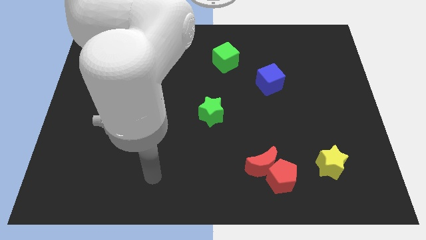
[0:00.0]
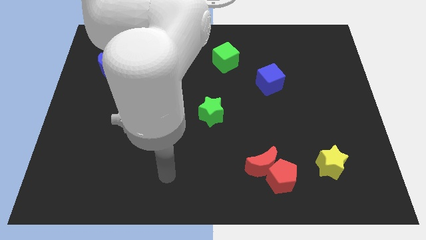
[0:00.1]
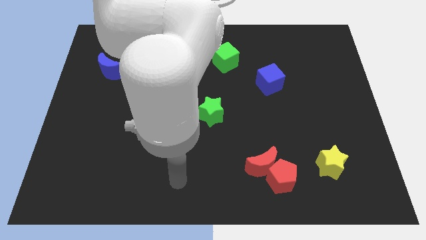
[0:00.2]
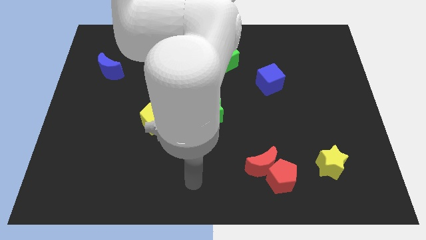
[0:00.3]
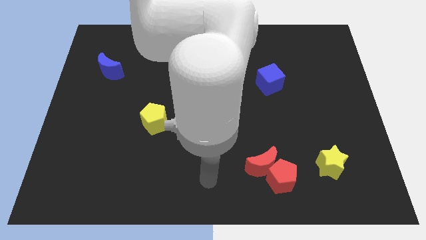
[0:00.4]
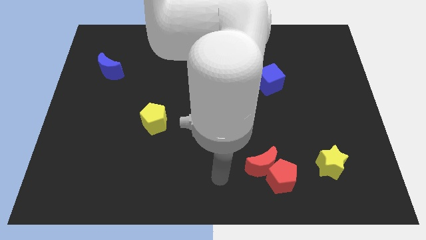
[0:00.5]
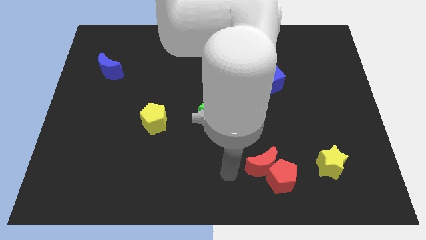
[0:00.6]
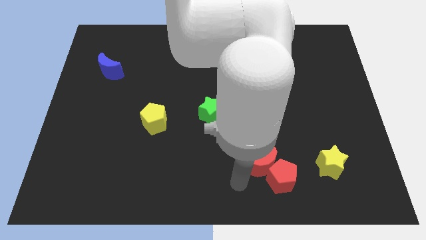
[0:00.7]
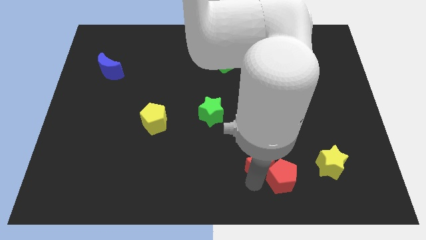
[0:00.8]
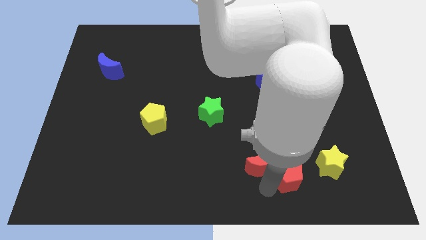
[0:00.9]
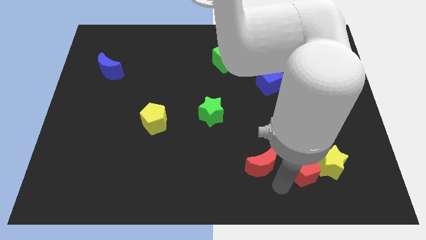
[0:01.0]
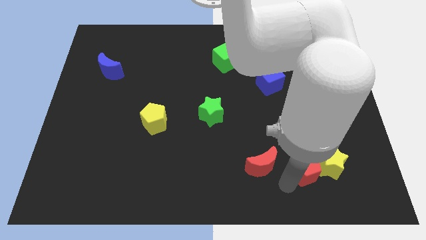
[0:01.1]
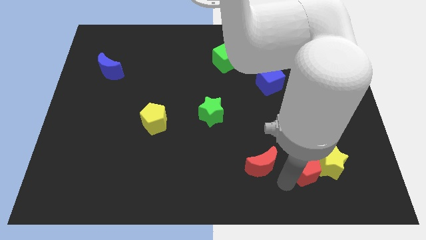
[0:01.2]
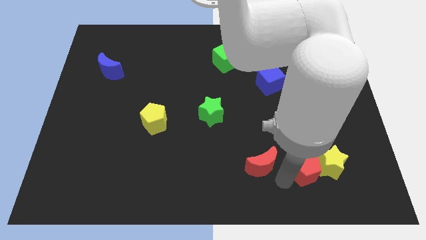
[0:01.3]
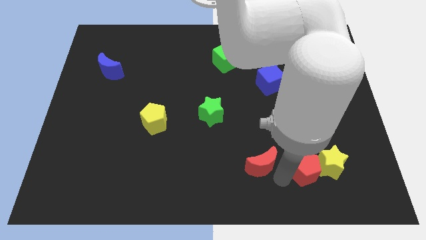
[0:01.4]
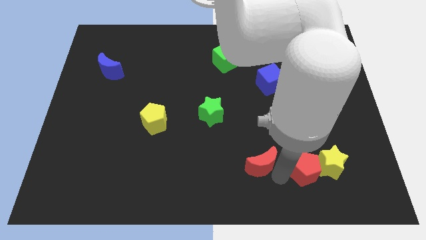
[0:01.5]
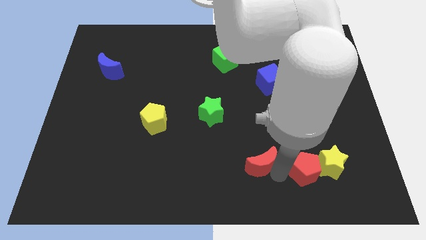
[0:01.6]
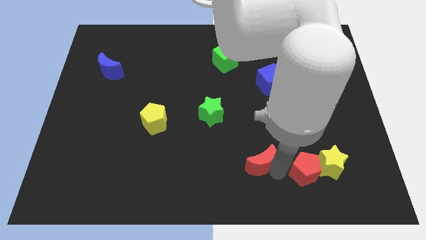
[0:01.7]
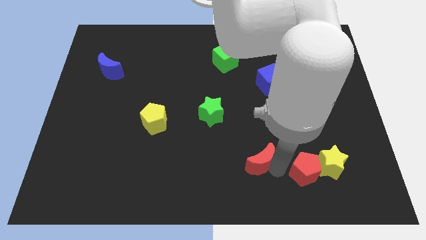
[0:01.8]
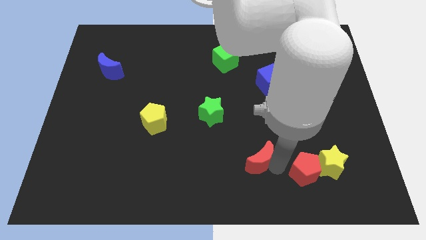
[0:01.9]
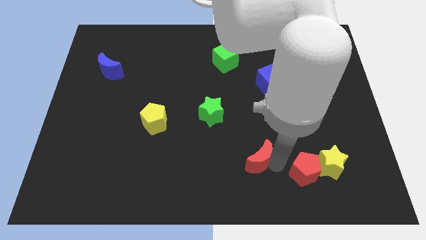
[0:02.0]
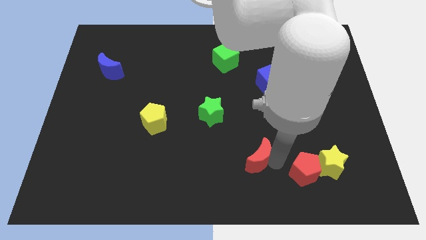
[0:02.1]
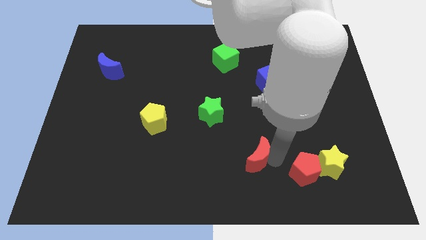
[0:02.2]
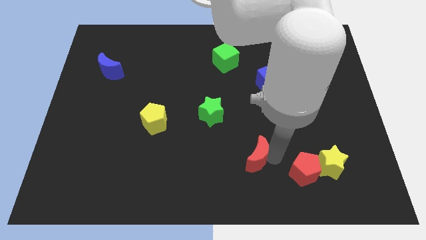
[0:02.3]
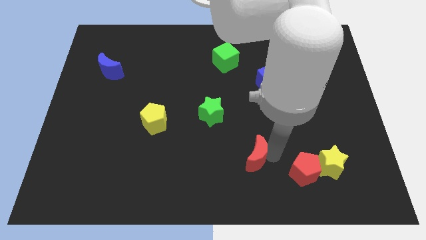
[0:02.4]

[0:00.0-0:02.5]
move the red moon away from the red pentagon

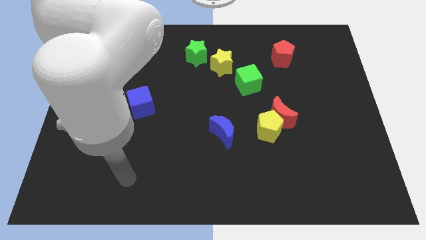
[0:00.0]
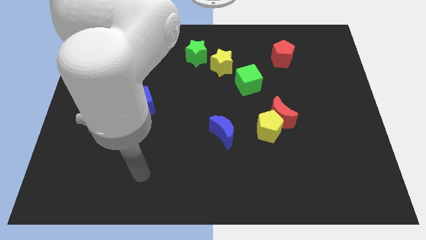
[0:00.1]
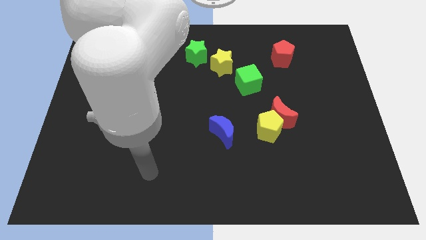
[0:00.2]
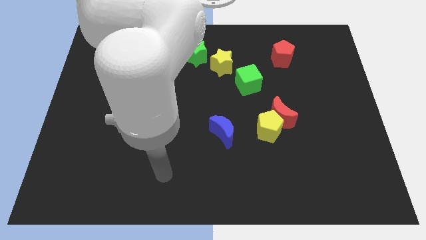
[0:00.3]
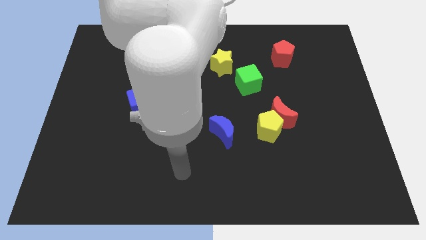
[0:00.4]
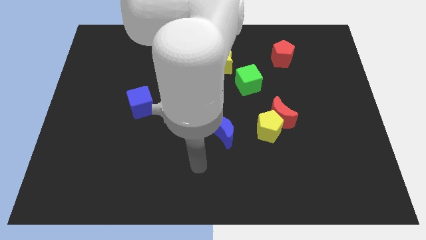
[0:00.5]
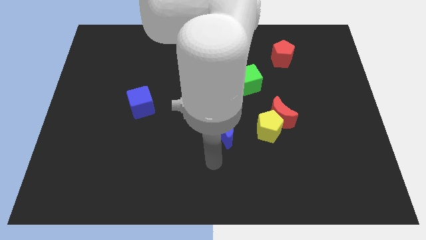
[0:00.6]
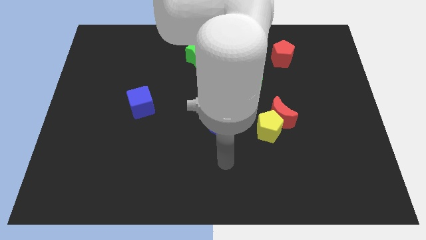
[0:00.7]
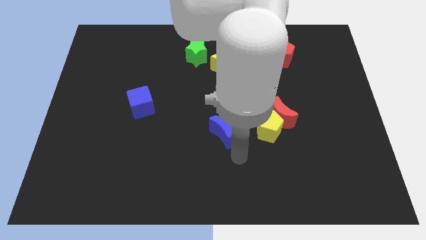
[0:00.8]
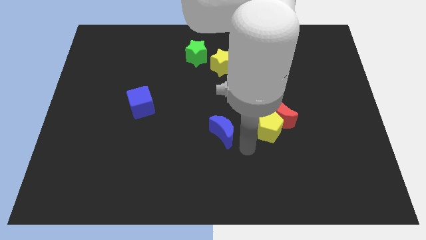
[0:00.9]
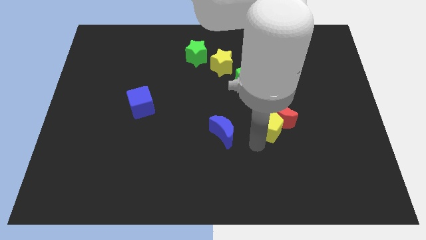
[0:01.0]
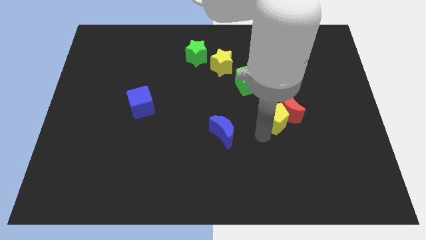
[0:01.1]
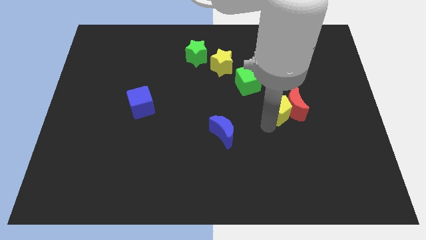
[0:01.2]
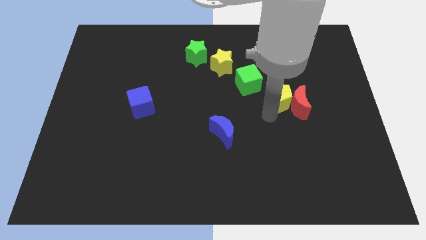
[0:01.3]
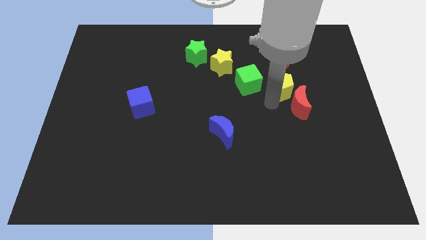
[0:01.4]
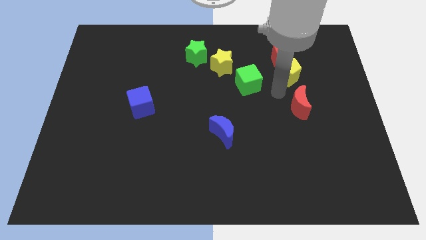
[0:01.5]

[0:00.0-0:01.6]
move the red moon away from the yellow pentagon

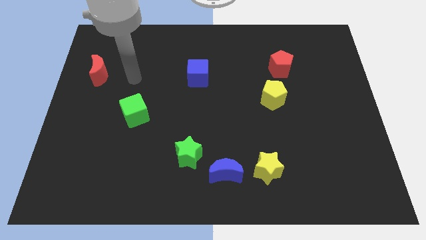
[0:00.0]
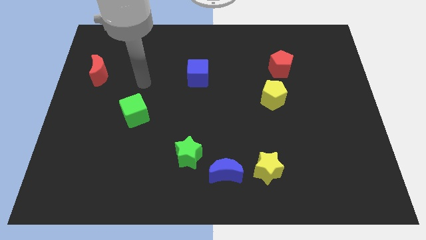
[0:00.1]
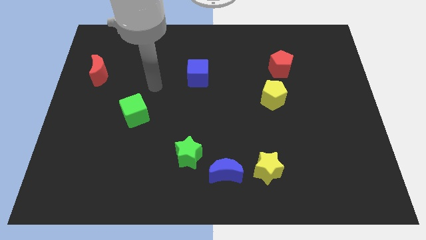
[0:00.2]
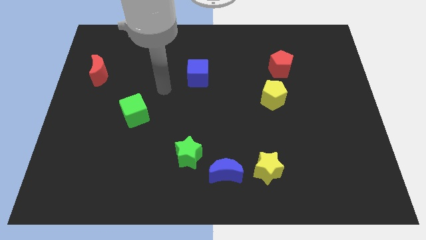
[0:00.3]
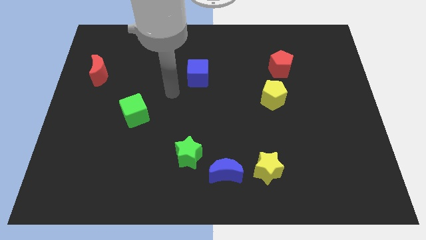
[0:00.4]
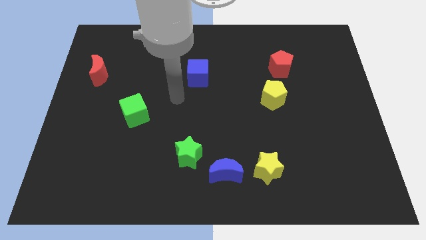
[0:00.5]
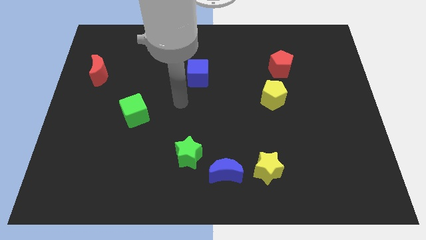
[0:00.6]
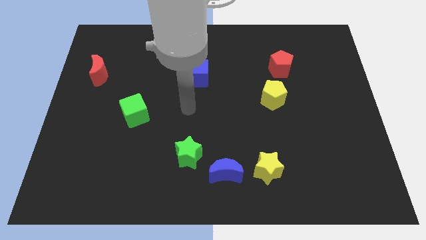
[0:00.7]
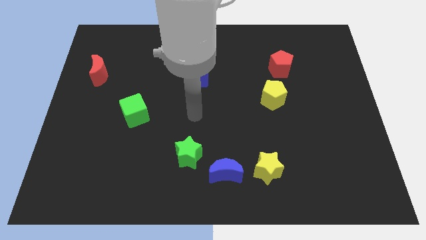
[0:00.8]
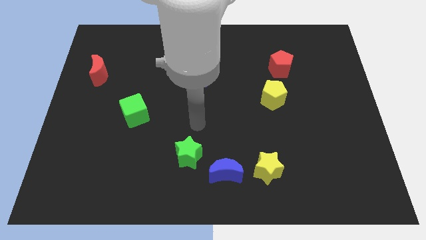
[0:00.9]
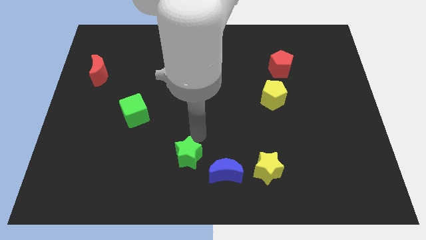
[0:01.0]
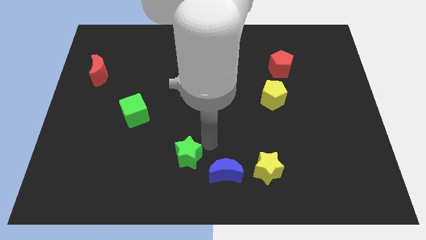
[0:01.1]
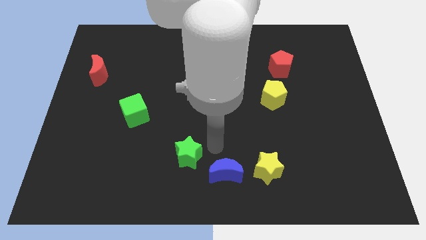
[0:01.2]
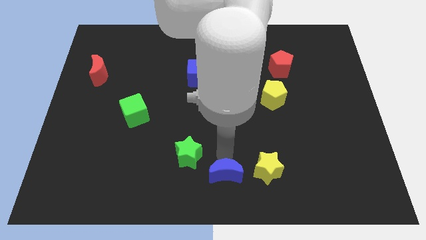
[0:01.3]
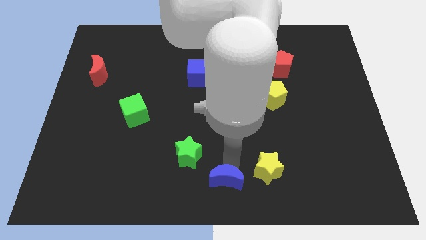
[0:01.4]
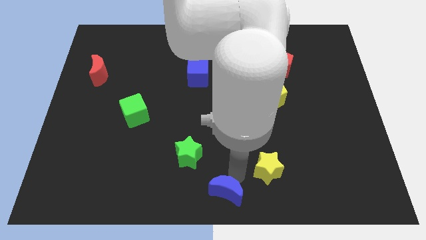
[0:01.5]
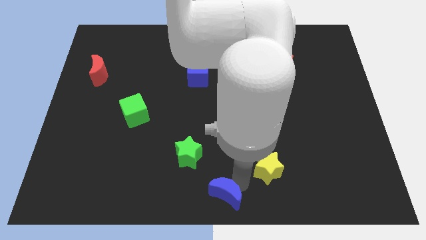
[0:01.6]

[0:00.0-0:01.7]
separate the yellow star from the blue moon

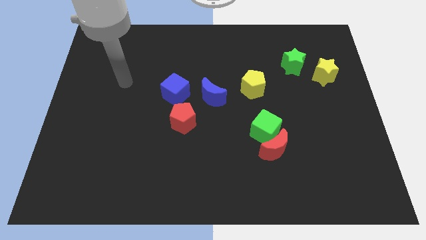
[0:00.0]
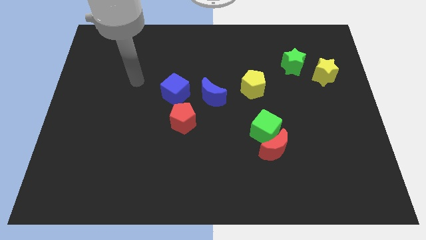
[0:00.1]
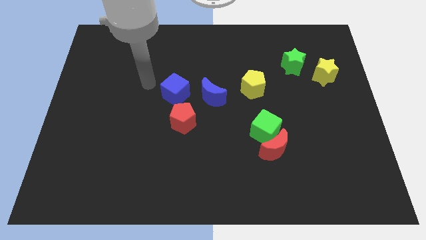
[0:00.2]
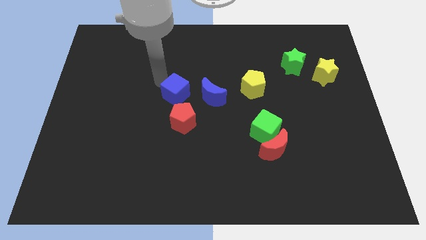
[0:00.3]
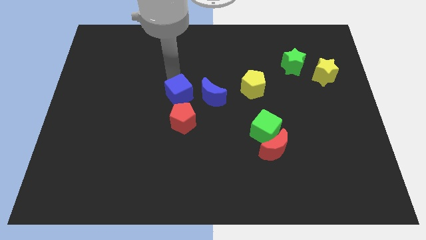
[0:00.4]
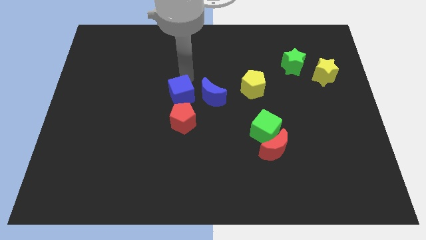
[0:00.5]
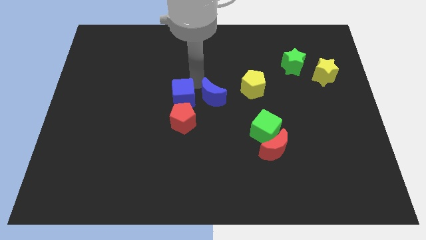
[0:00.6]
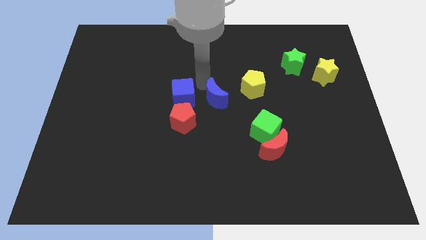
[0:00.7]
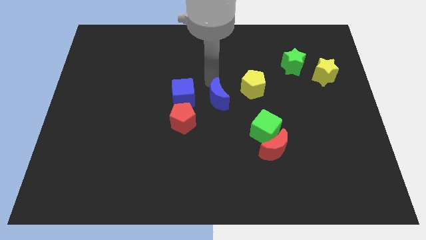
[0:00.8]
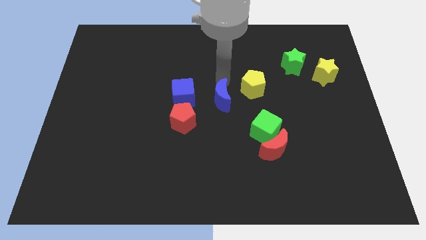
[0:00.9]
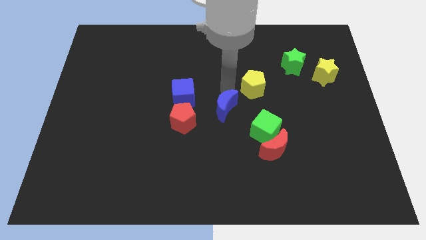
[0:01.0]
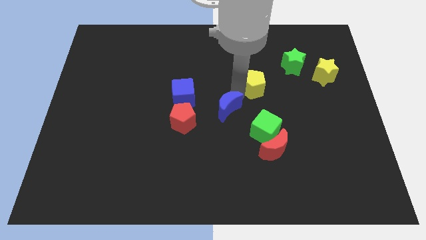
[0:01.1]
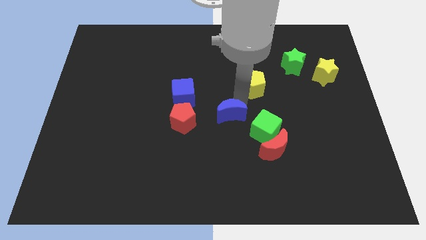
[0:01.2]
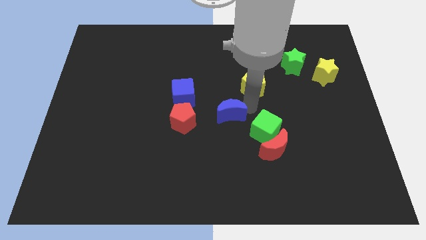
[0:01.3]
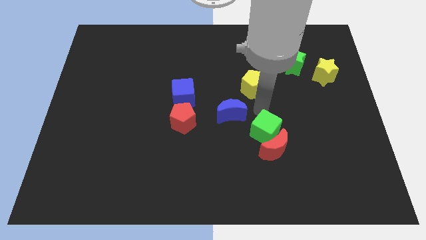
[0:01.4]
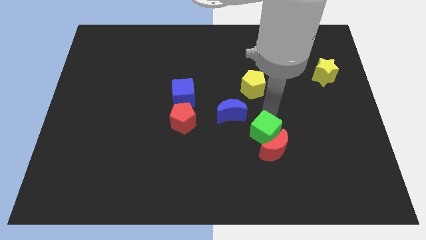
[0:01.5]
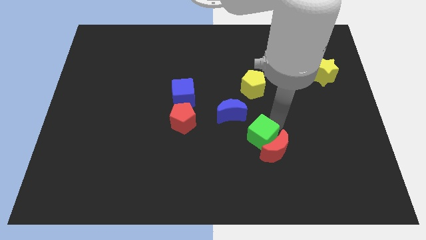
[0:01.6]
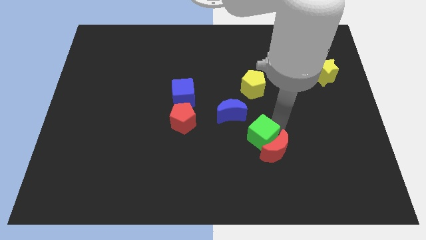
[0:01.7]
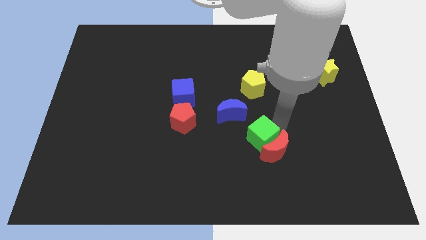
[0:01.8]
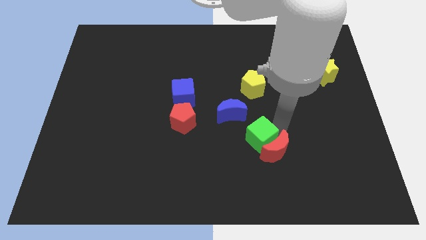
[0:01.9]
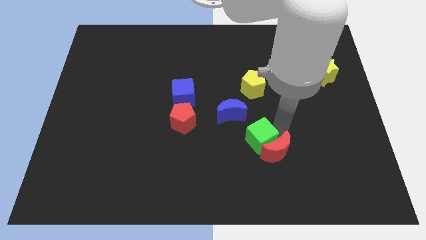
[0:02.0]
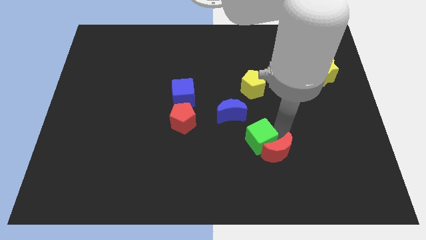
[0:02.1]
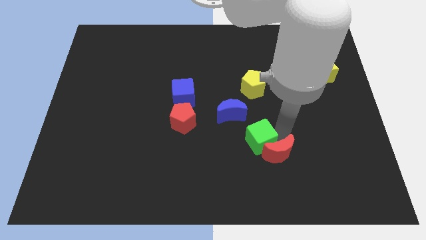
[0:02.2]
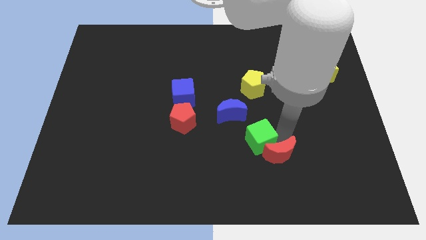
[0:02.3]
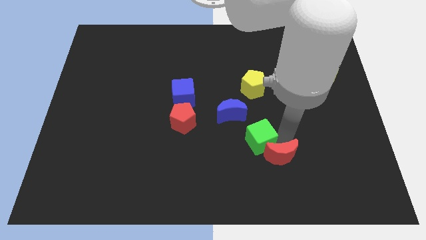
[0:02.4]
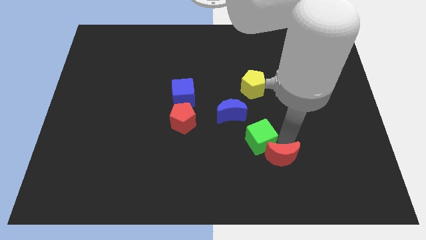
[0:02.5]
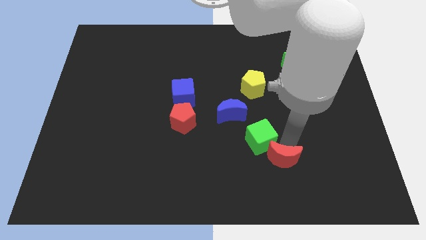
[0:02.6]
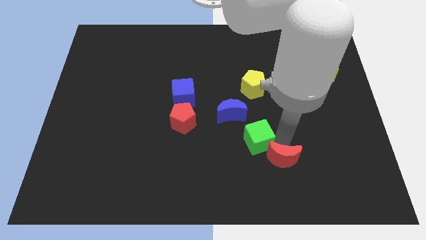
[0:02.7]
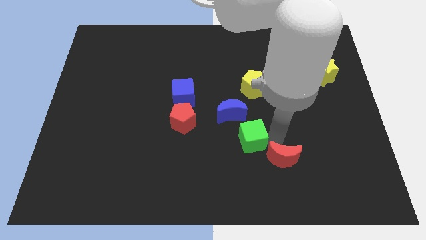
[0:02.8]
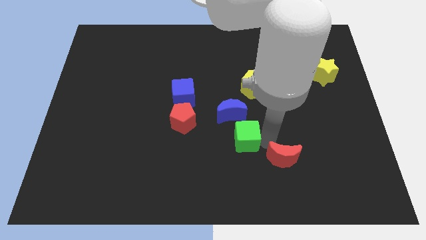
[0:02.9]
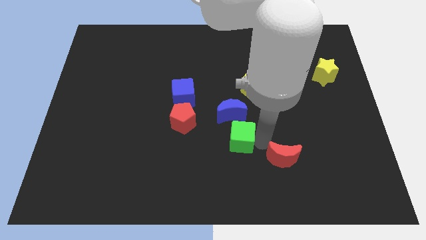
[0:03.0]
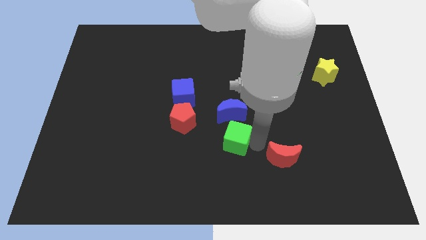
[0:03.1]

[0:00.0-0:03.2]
move the red moon away from the green cube

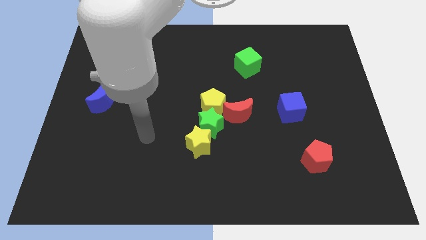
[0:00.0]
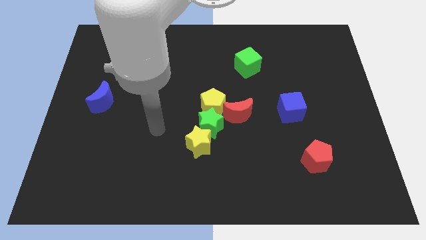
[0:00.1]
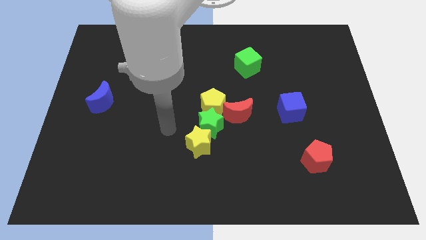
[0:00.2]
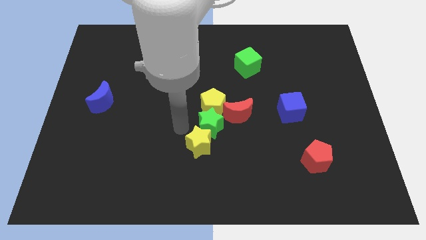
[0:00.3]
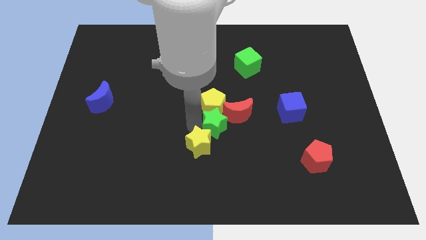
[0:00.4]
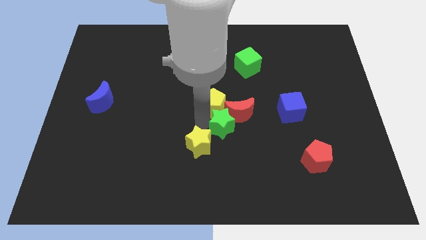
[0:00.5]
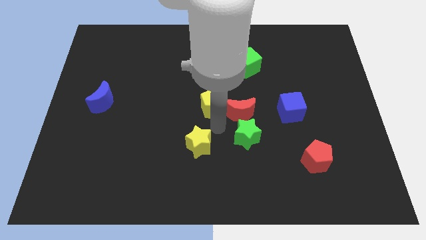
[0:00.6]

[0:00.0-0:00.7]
move the yellow star away from the green star
